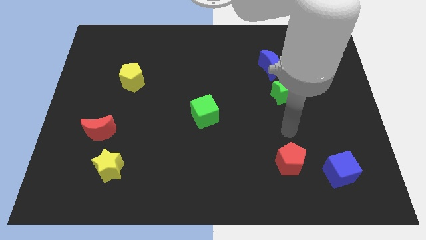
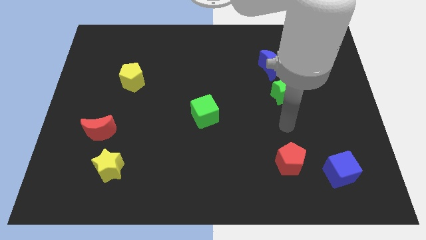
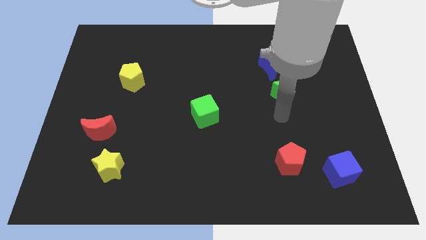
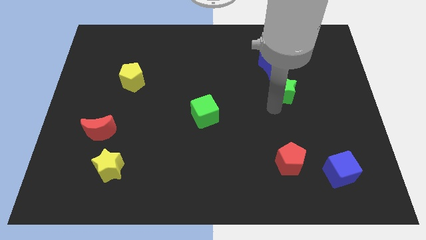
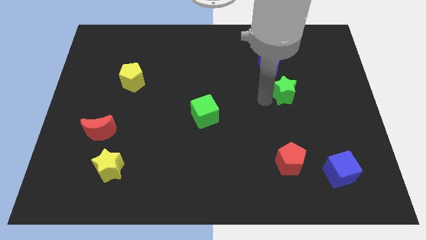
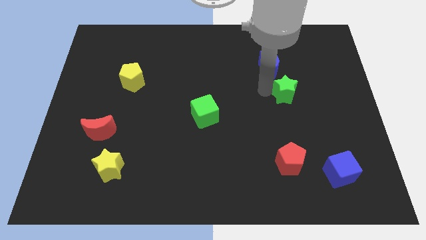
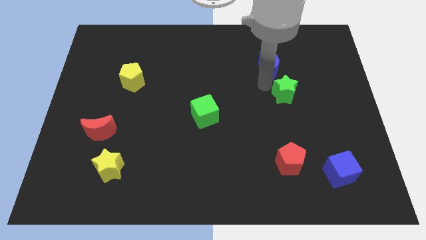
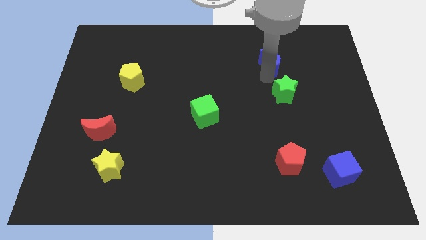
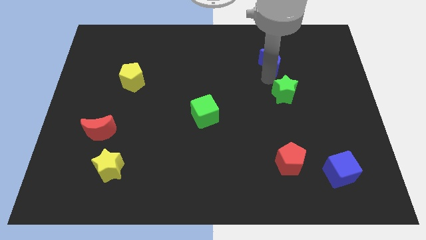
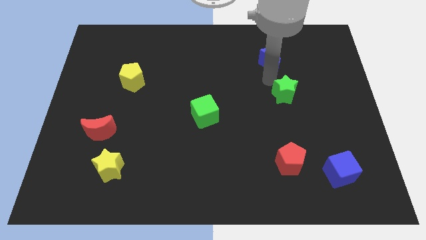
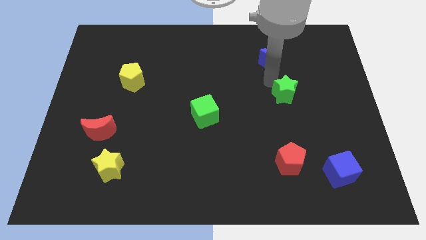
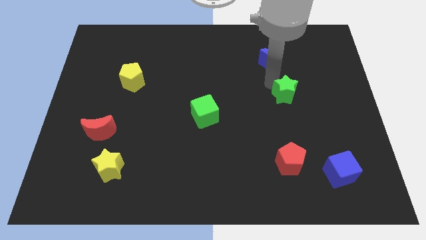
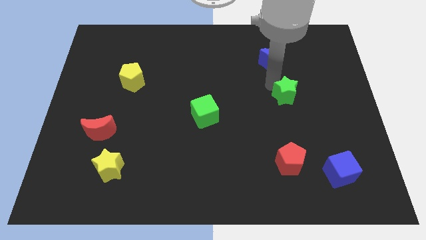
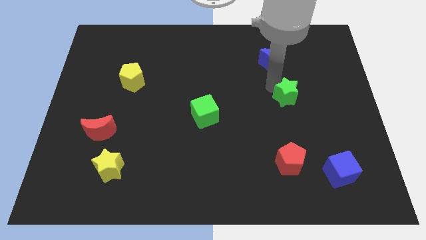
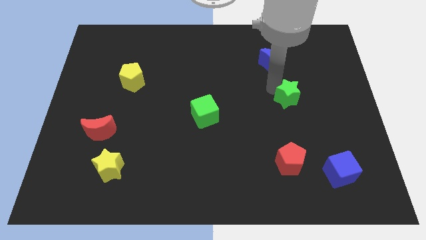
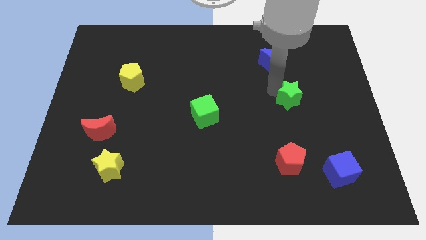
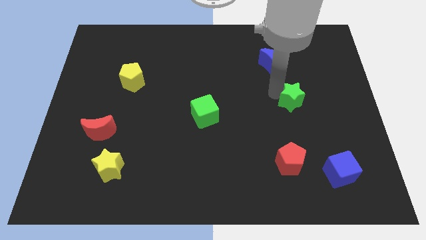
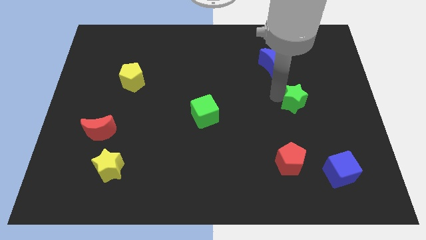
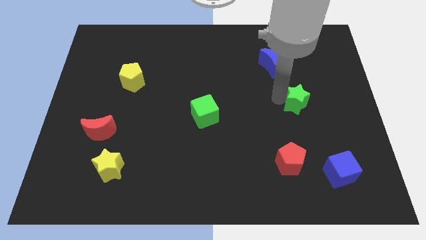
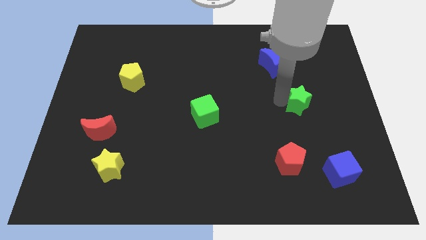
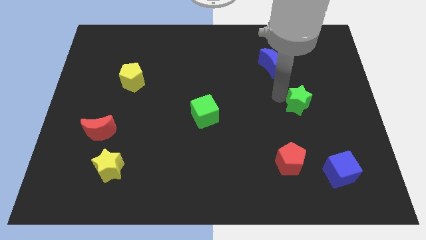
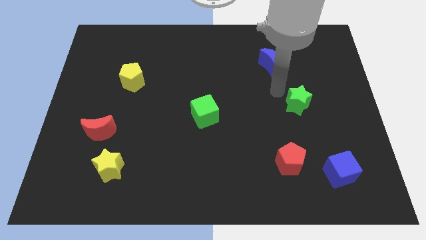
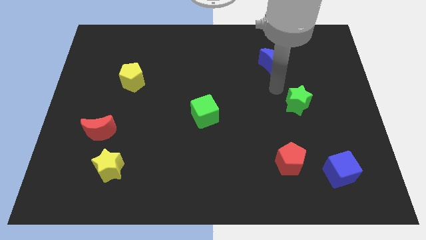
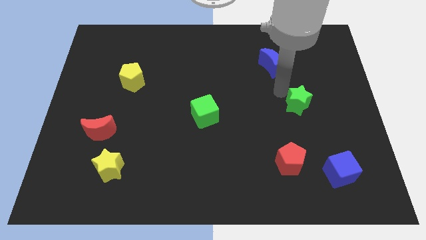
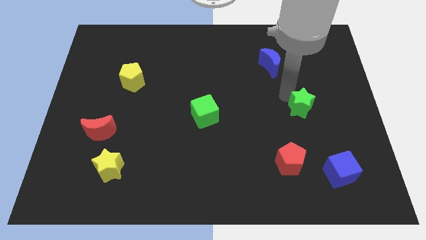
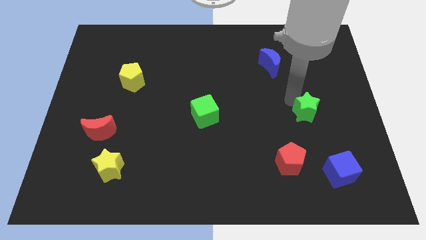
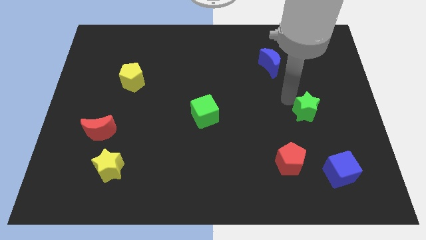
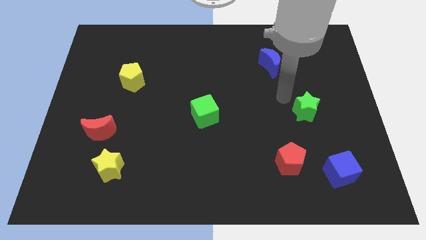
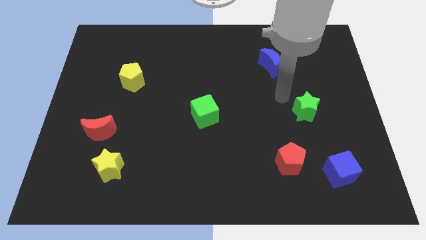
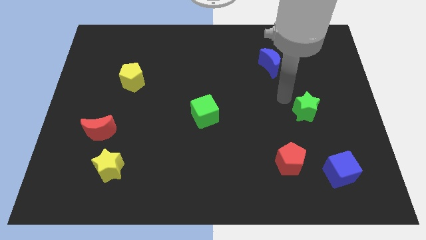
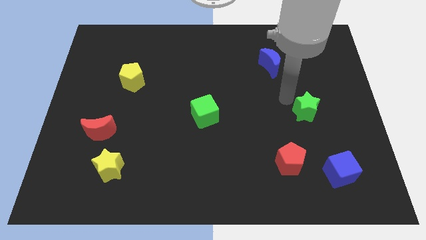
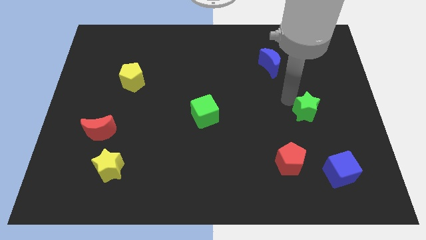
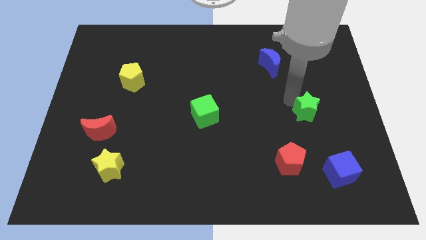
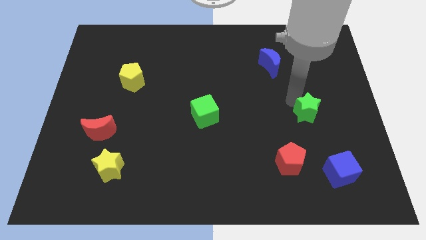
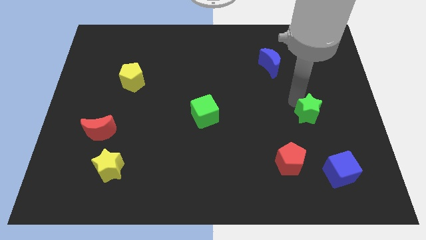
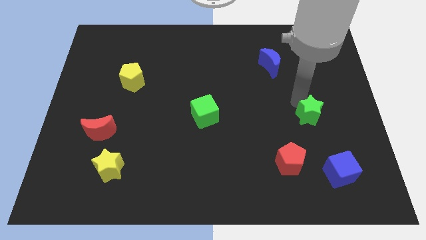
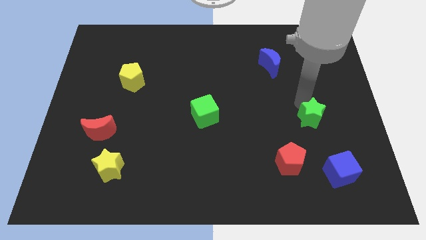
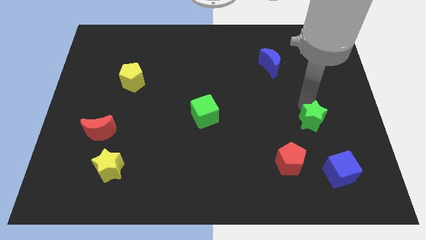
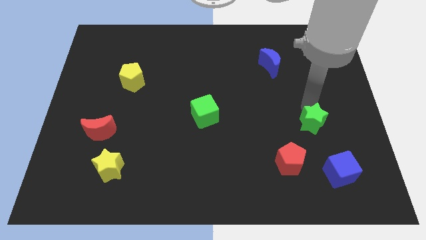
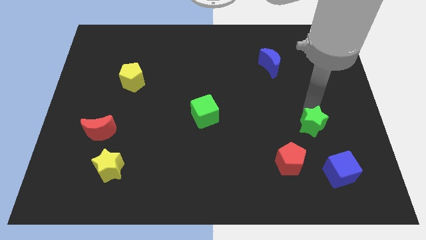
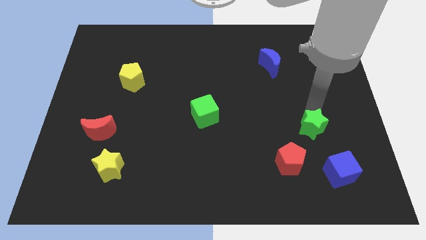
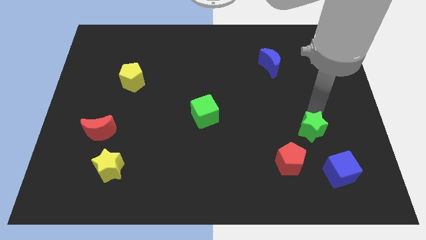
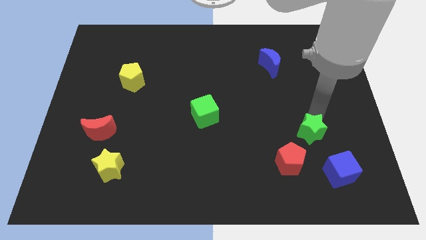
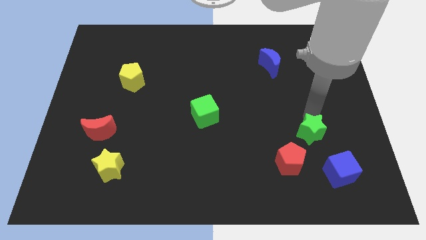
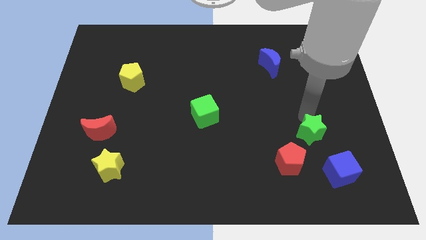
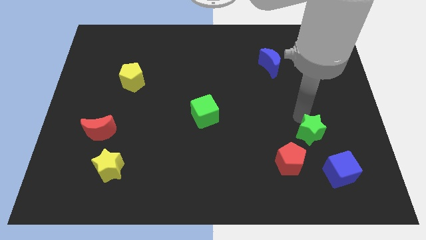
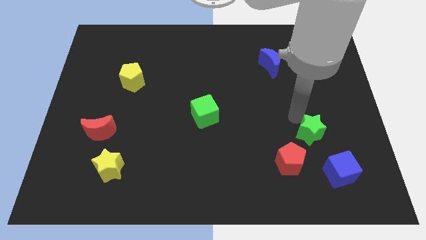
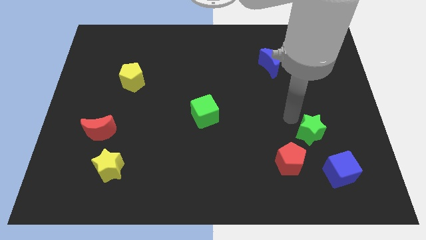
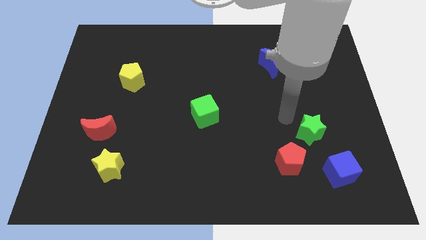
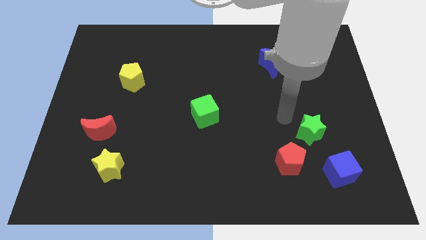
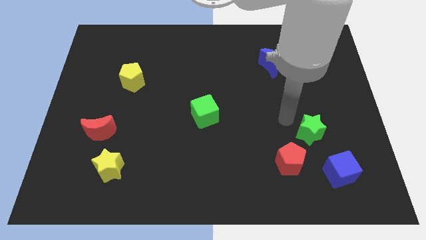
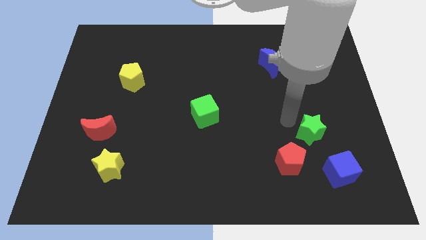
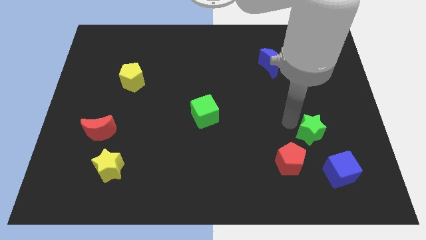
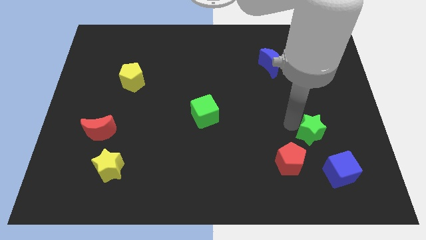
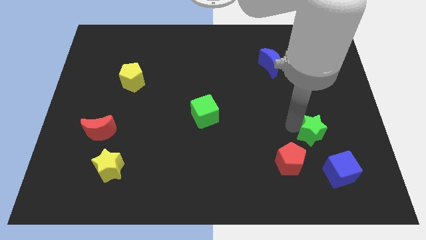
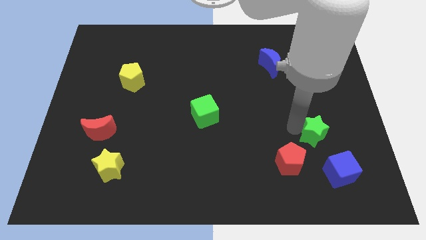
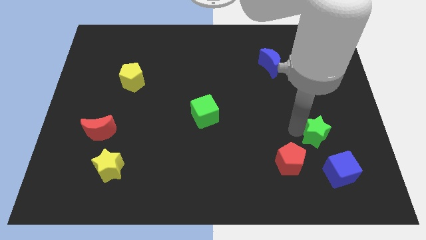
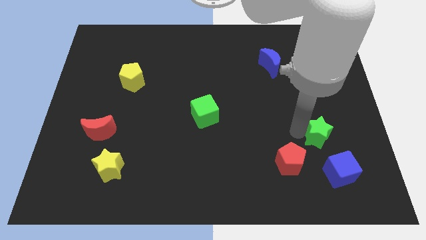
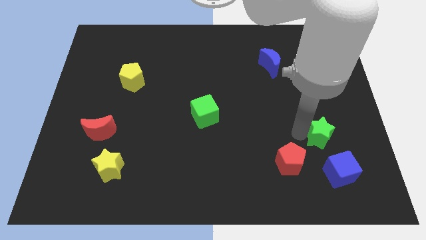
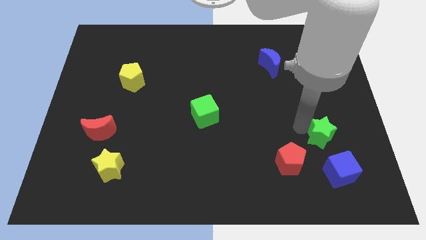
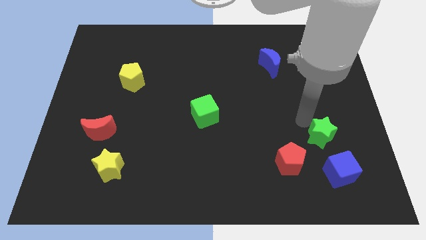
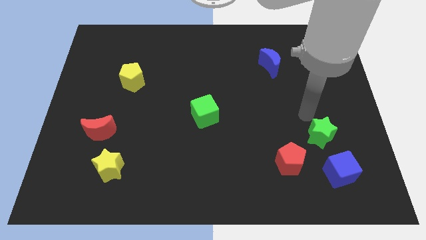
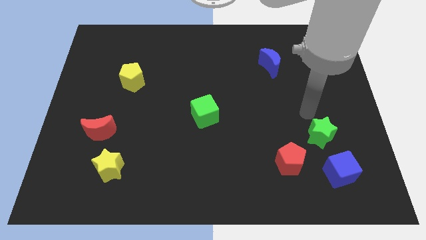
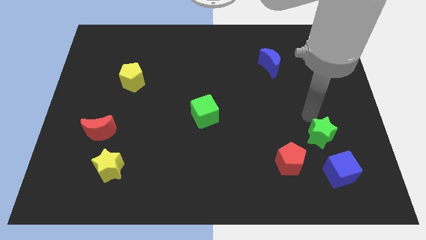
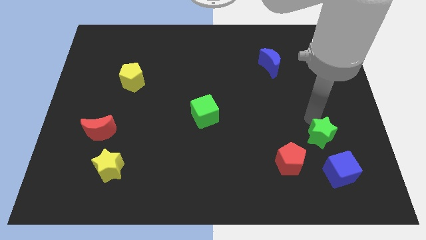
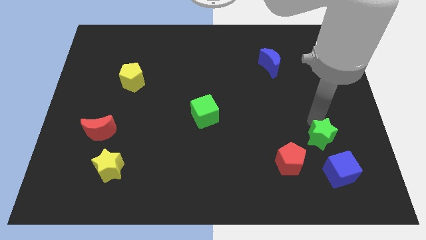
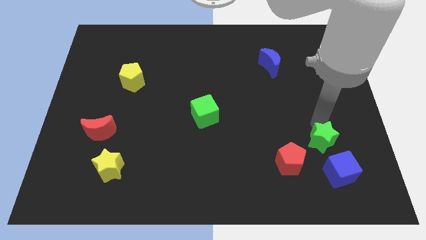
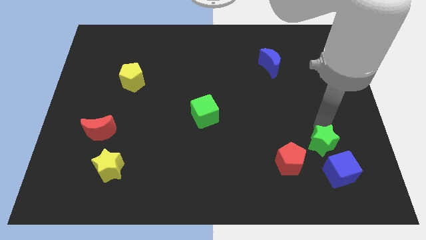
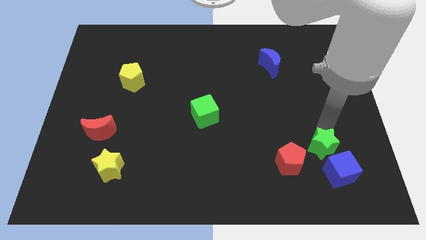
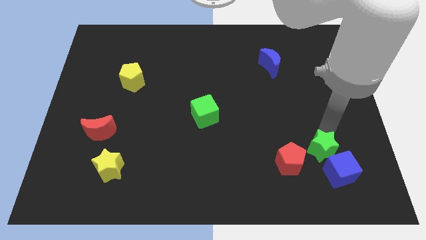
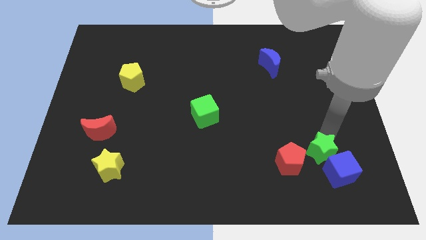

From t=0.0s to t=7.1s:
slide the green star next to the blue cube

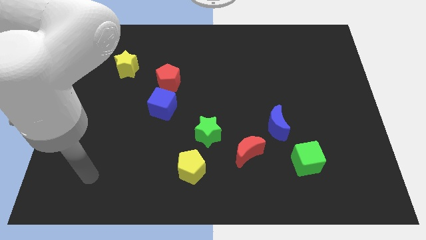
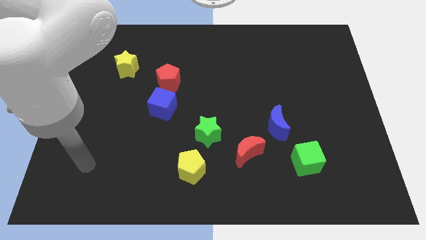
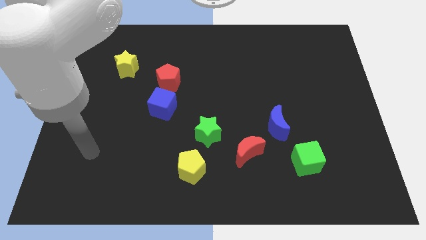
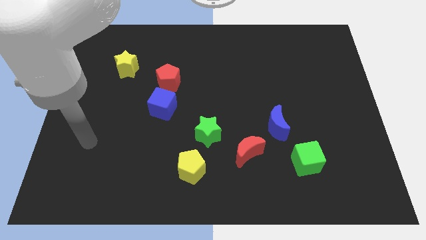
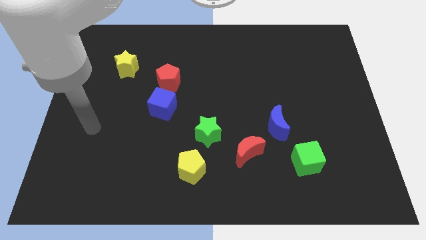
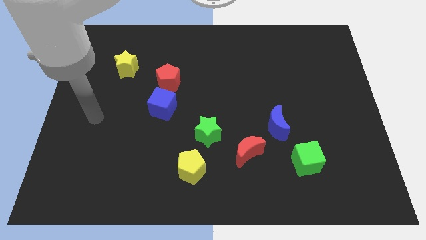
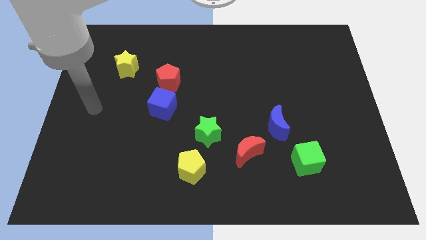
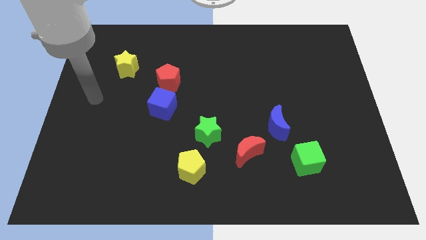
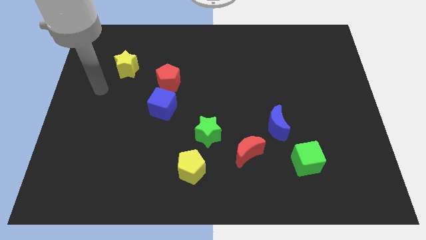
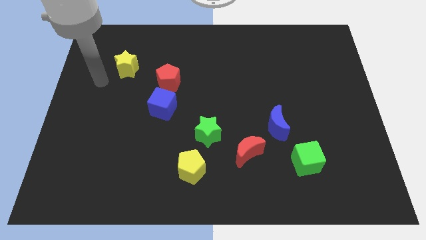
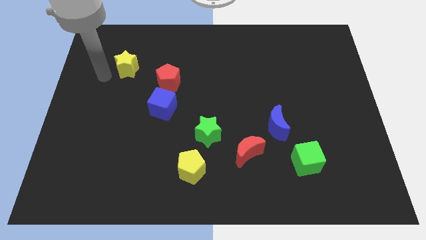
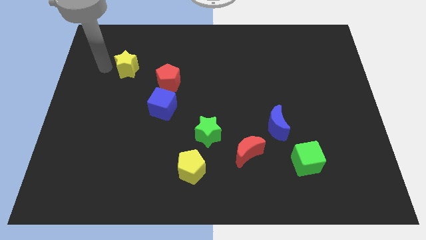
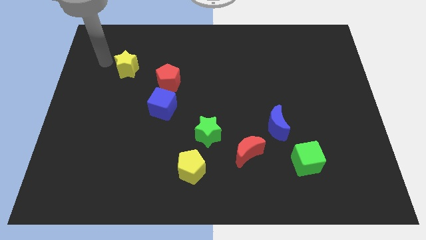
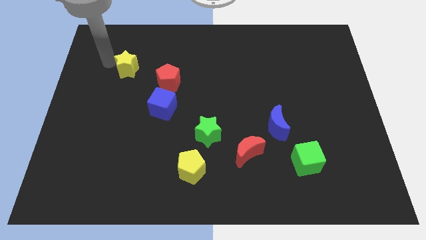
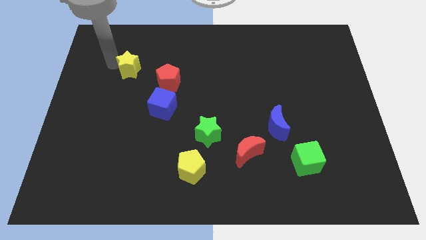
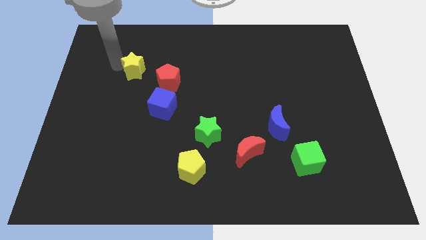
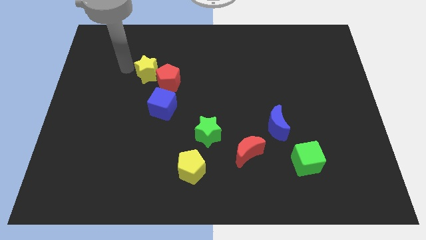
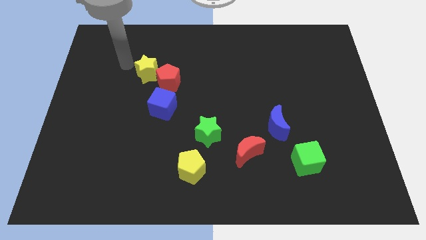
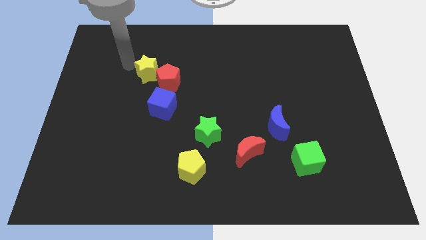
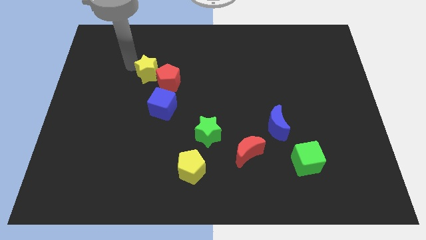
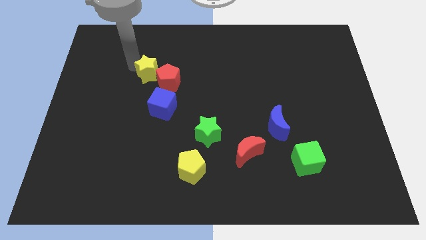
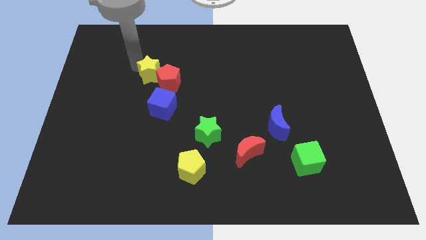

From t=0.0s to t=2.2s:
slide the yellow star to the red pentagon
